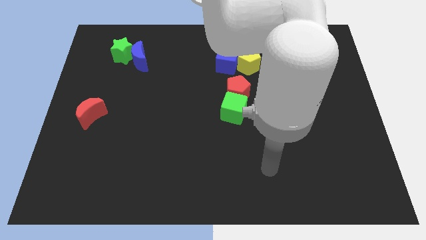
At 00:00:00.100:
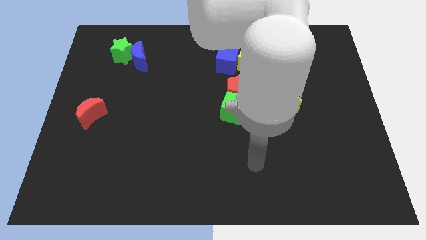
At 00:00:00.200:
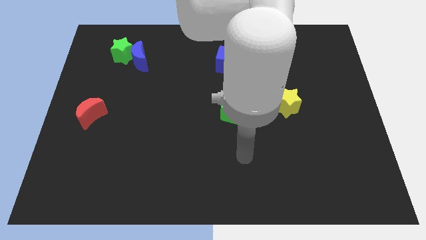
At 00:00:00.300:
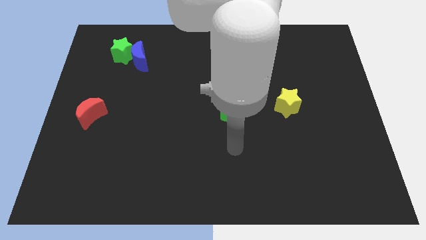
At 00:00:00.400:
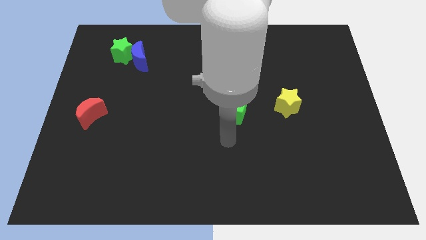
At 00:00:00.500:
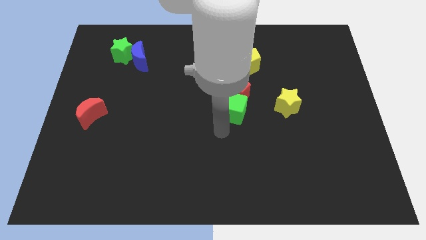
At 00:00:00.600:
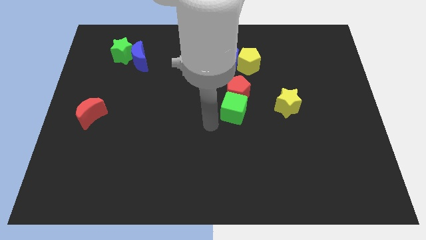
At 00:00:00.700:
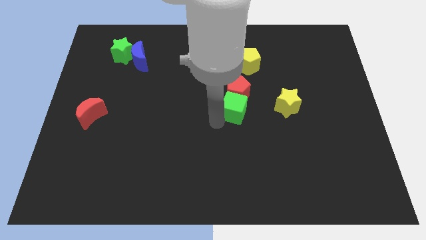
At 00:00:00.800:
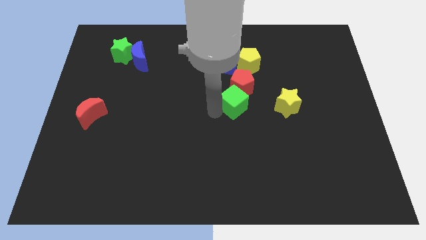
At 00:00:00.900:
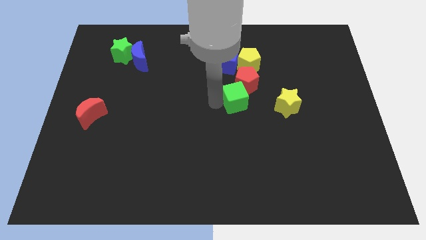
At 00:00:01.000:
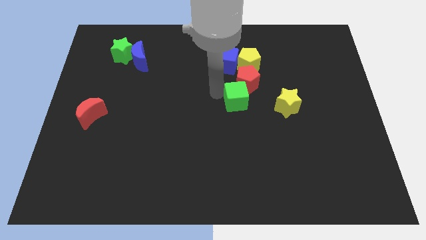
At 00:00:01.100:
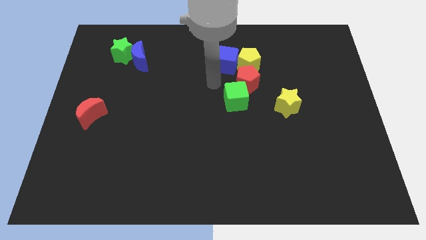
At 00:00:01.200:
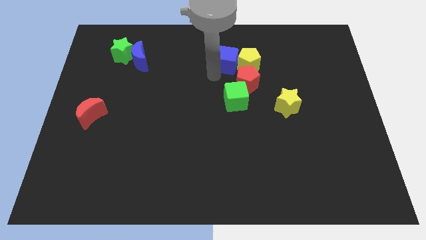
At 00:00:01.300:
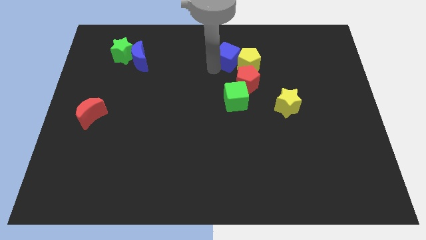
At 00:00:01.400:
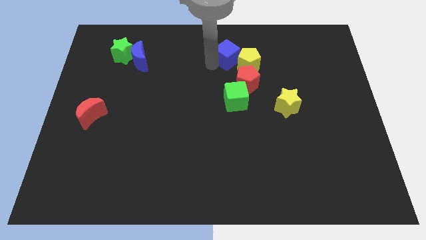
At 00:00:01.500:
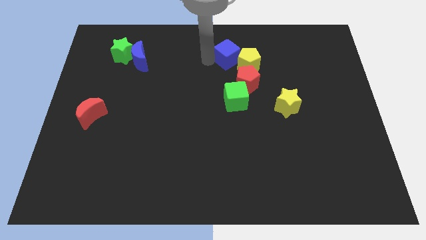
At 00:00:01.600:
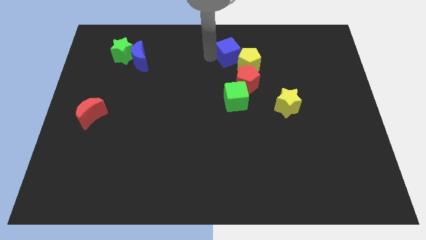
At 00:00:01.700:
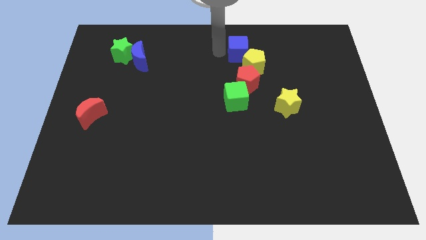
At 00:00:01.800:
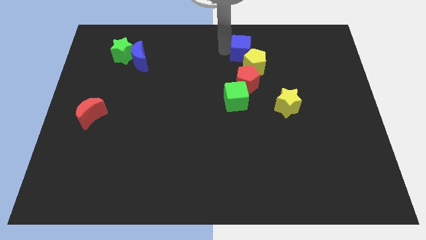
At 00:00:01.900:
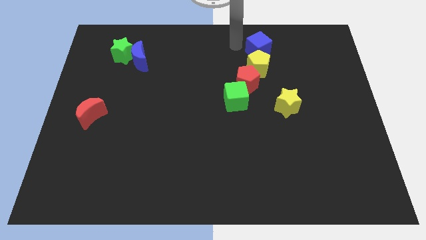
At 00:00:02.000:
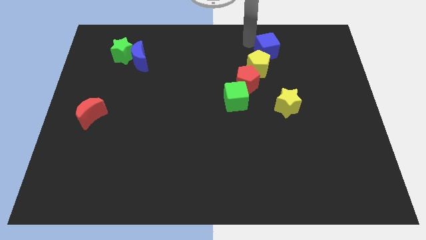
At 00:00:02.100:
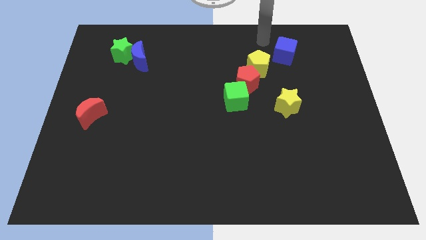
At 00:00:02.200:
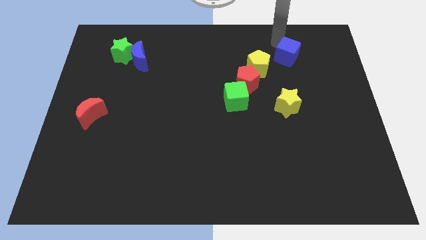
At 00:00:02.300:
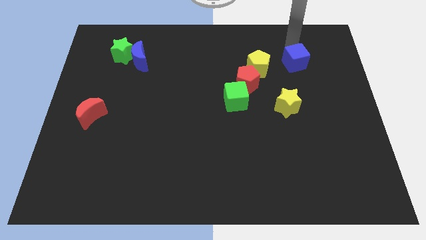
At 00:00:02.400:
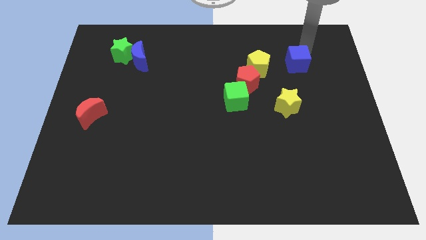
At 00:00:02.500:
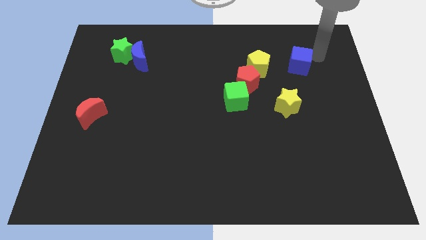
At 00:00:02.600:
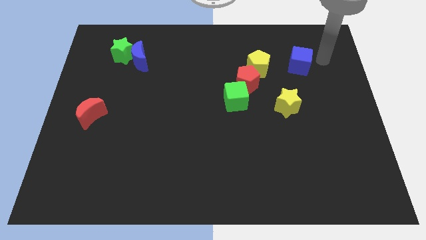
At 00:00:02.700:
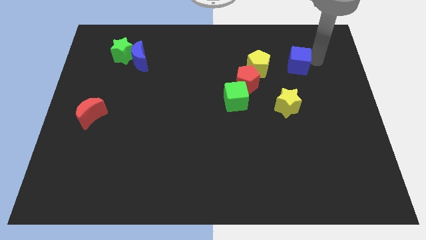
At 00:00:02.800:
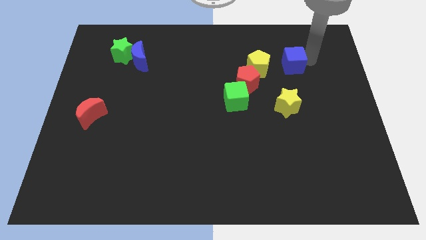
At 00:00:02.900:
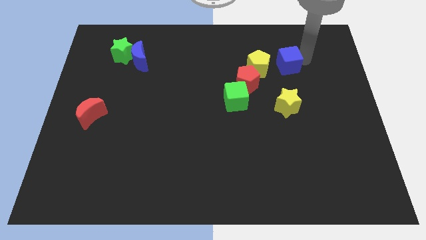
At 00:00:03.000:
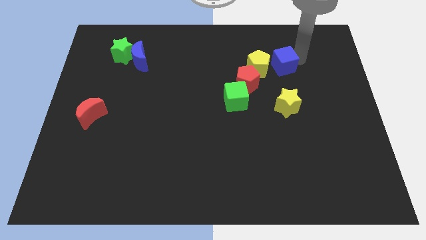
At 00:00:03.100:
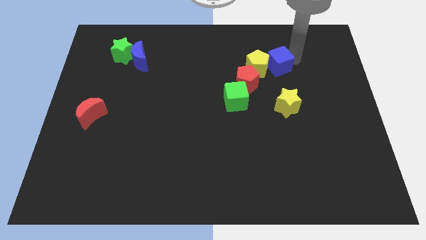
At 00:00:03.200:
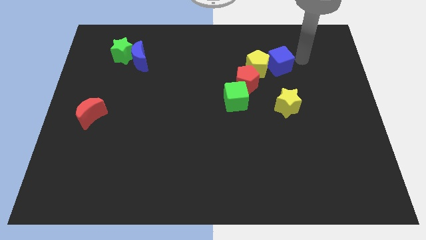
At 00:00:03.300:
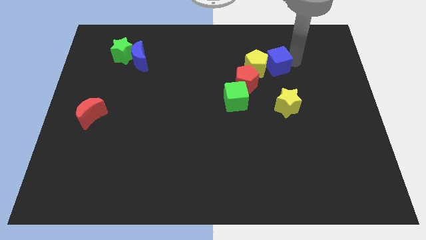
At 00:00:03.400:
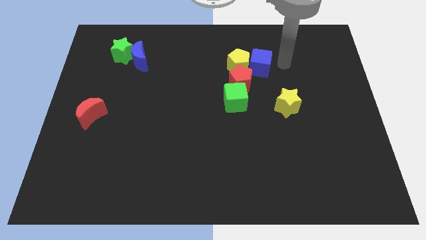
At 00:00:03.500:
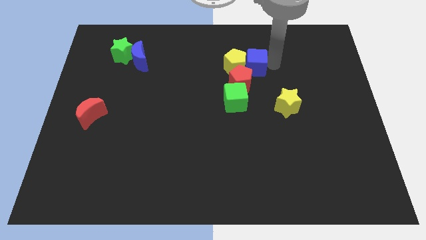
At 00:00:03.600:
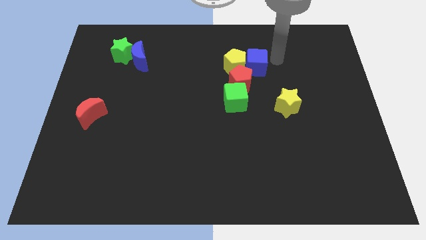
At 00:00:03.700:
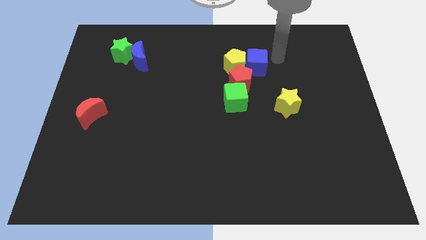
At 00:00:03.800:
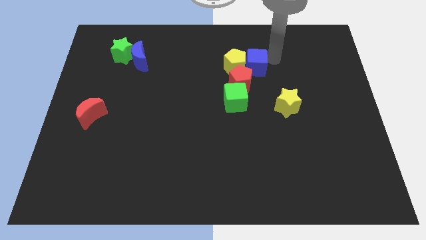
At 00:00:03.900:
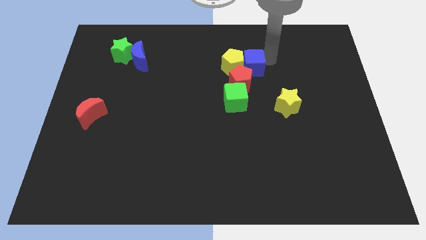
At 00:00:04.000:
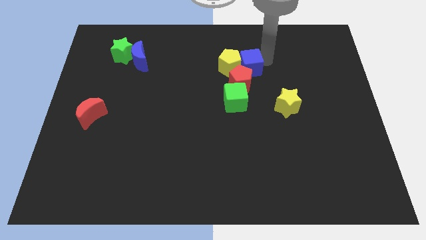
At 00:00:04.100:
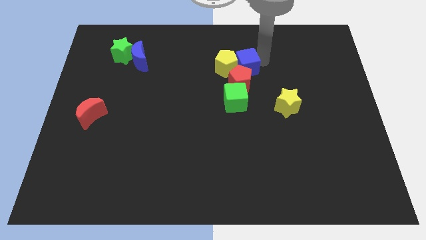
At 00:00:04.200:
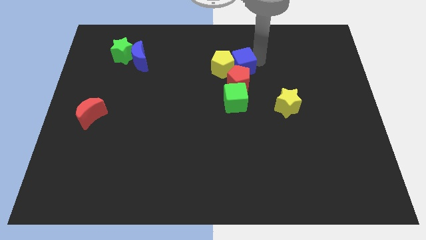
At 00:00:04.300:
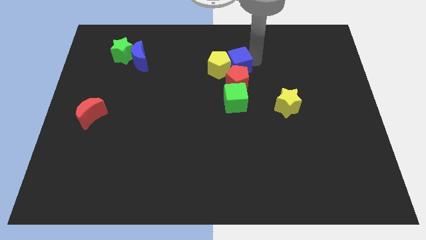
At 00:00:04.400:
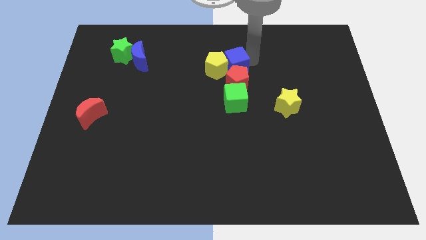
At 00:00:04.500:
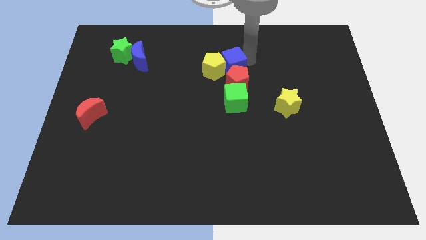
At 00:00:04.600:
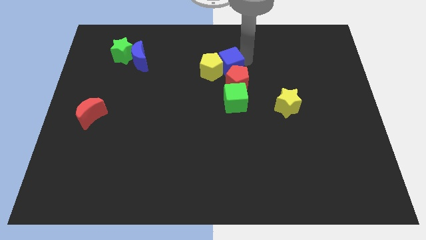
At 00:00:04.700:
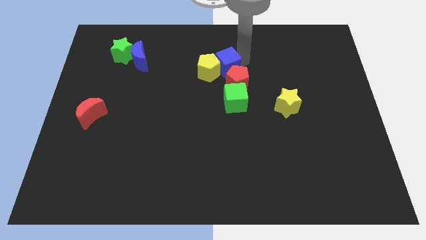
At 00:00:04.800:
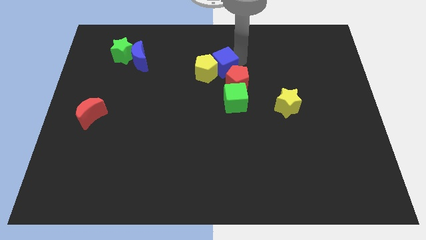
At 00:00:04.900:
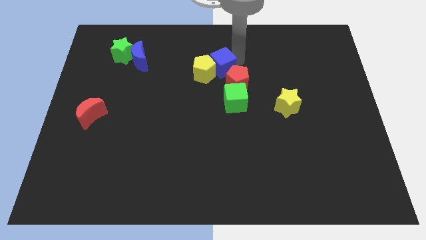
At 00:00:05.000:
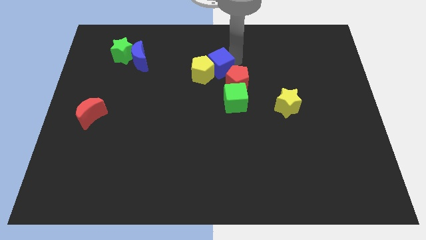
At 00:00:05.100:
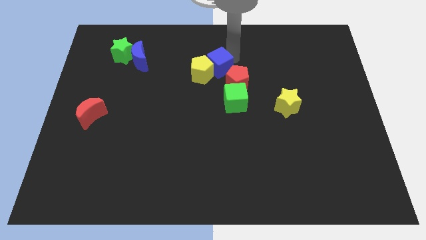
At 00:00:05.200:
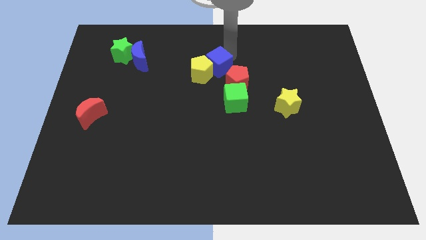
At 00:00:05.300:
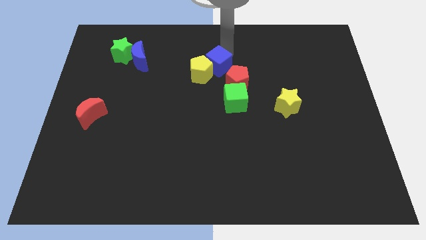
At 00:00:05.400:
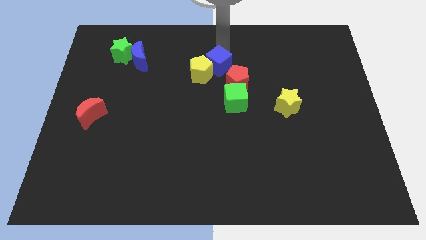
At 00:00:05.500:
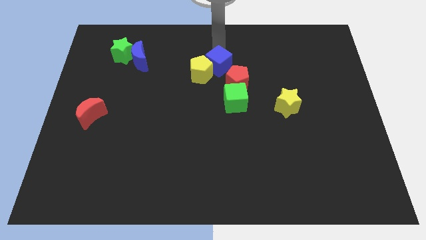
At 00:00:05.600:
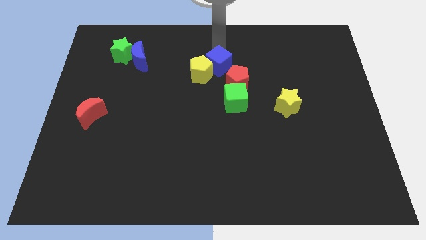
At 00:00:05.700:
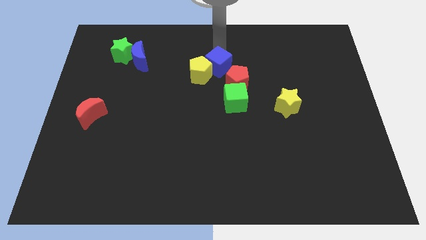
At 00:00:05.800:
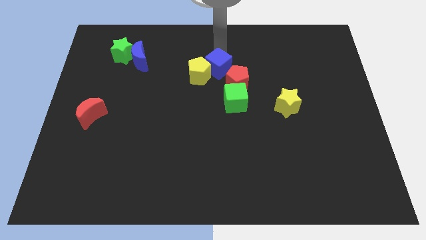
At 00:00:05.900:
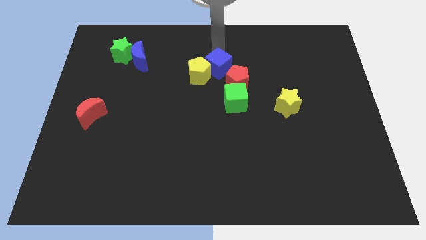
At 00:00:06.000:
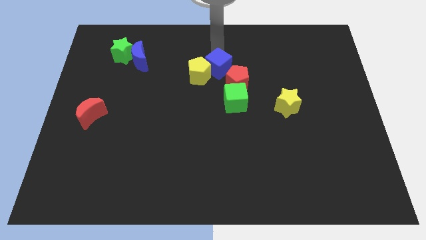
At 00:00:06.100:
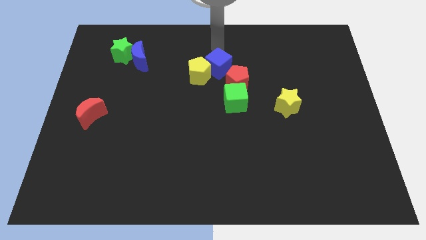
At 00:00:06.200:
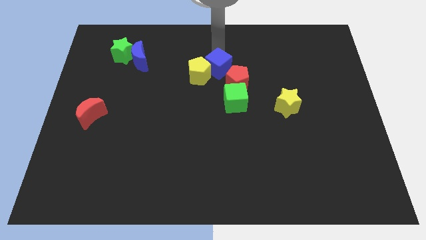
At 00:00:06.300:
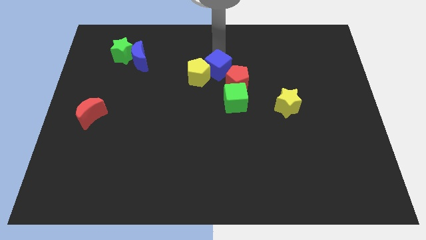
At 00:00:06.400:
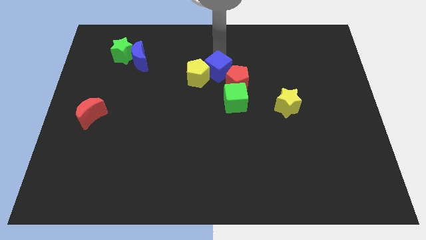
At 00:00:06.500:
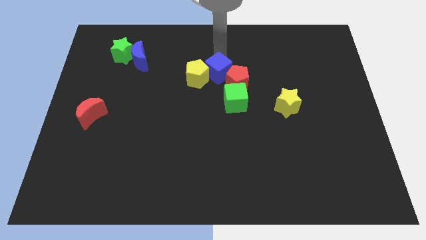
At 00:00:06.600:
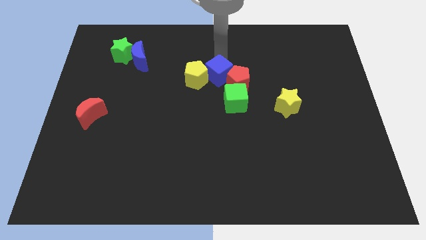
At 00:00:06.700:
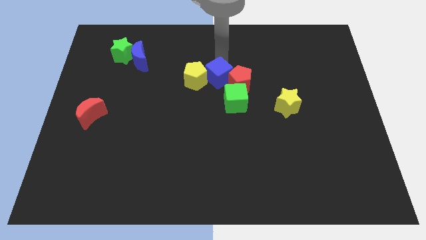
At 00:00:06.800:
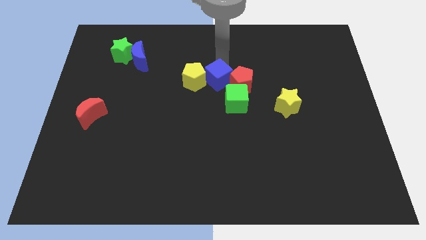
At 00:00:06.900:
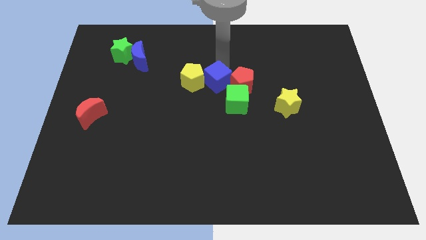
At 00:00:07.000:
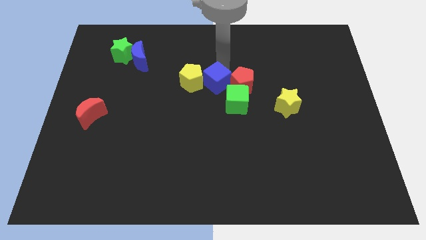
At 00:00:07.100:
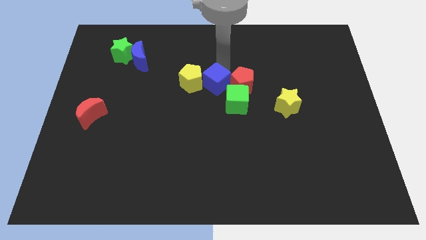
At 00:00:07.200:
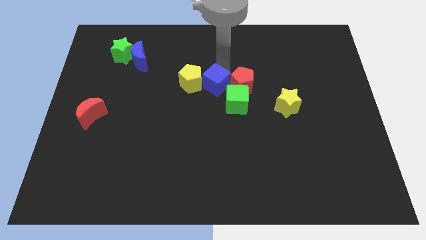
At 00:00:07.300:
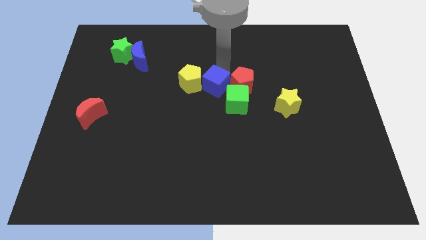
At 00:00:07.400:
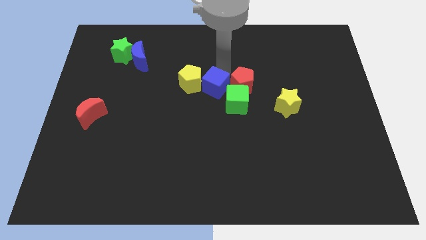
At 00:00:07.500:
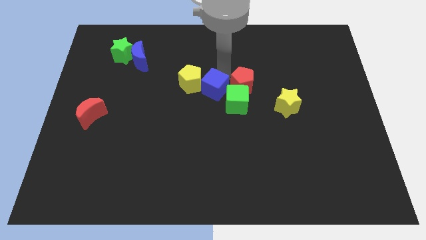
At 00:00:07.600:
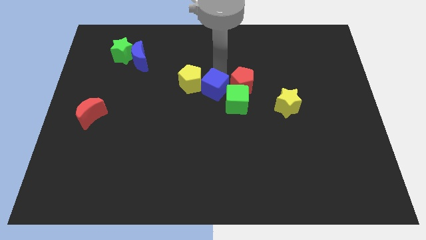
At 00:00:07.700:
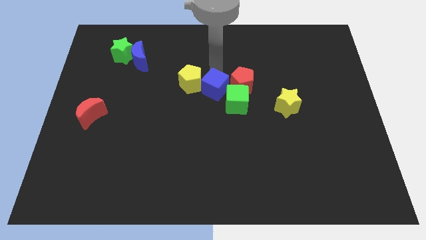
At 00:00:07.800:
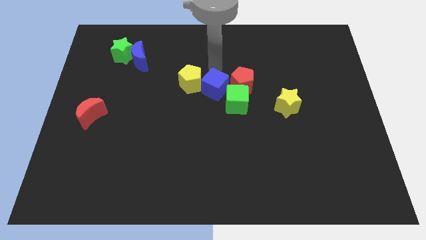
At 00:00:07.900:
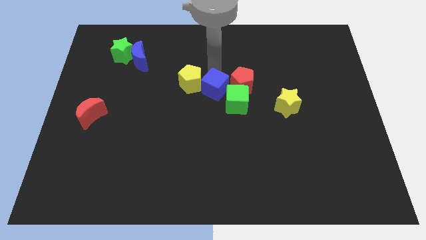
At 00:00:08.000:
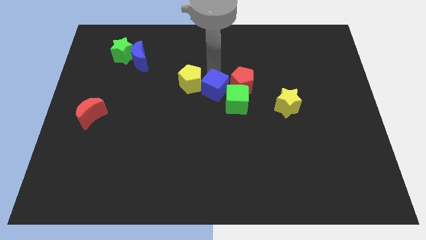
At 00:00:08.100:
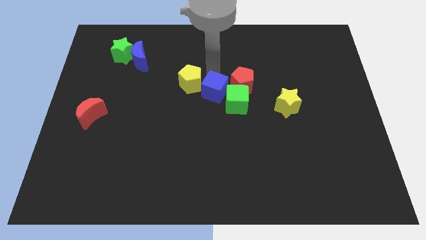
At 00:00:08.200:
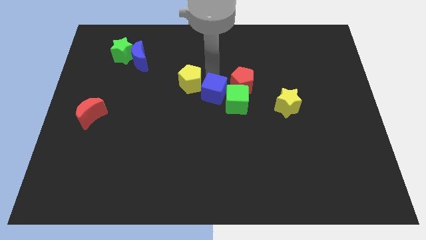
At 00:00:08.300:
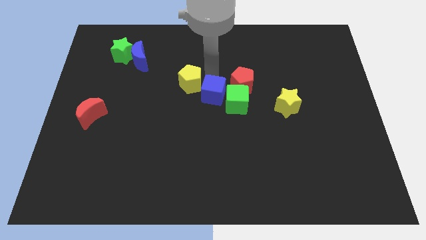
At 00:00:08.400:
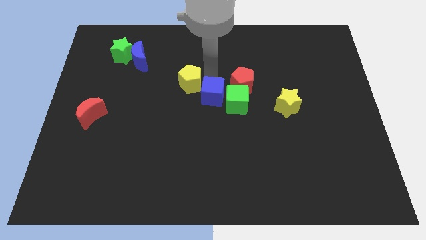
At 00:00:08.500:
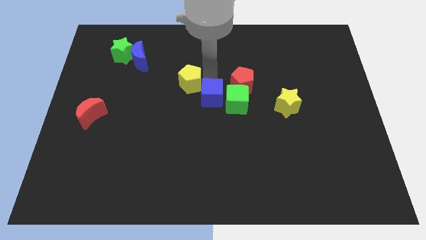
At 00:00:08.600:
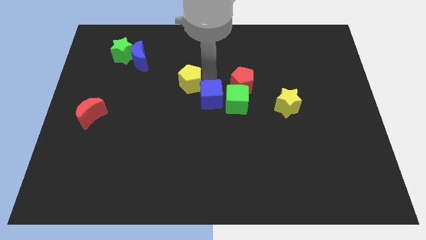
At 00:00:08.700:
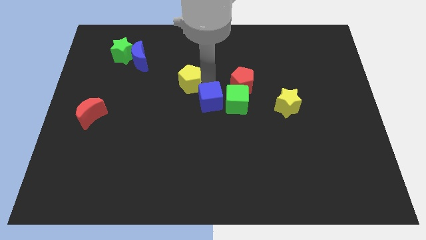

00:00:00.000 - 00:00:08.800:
slide the blue cube to the bottom left side of the green cube
